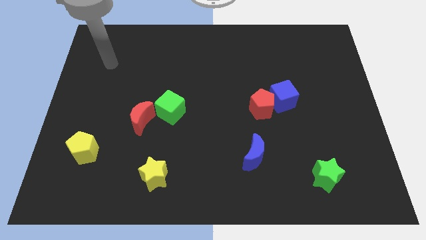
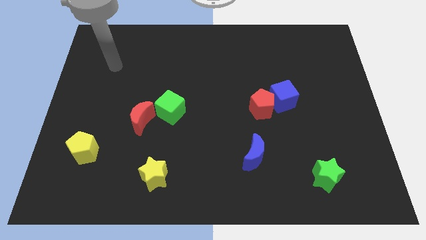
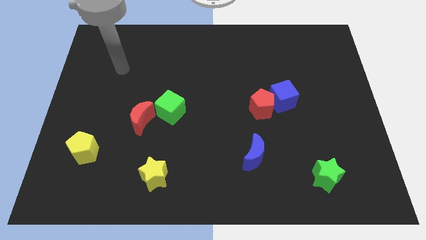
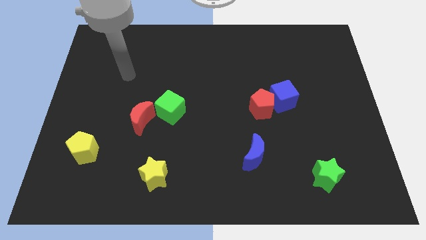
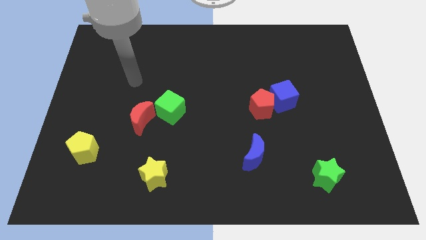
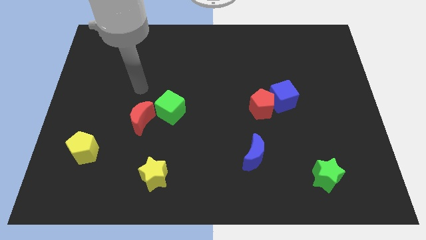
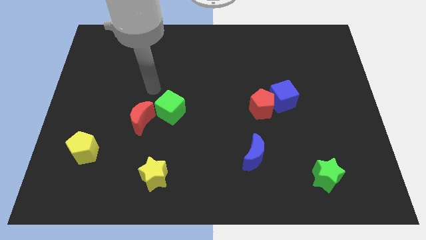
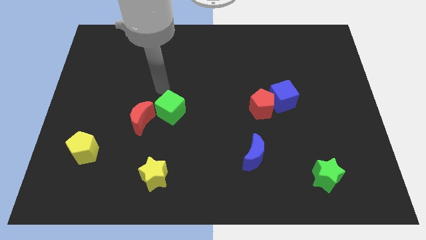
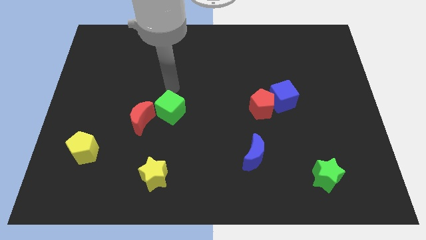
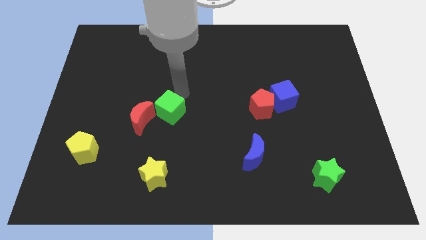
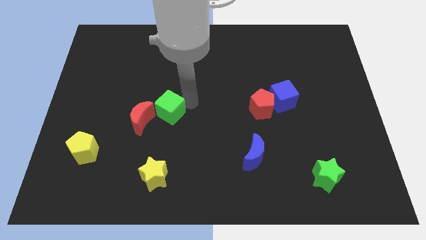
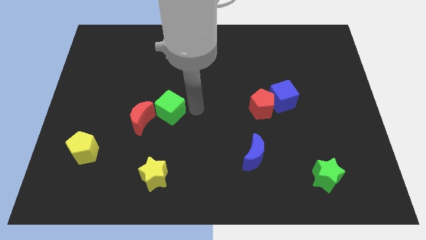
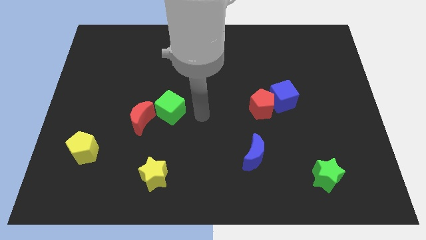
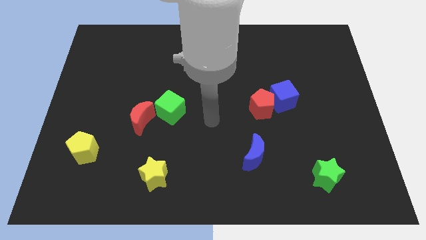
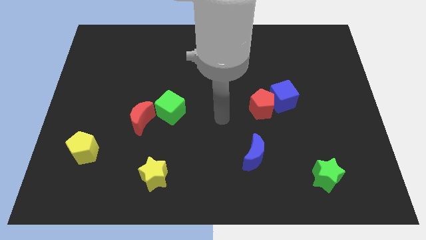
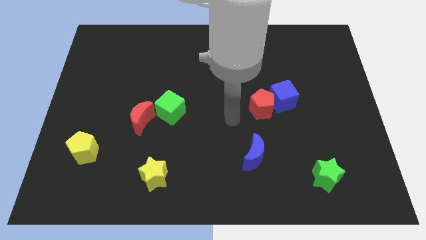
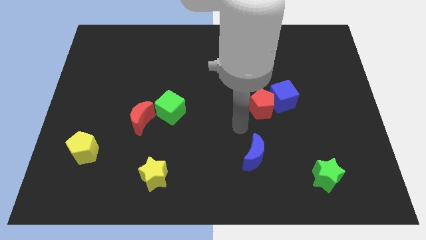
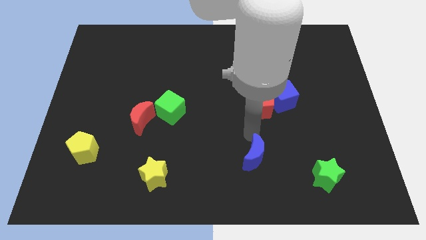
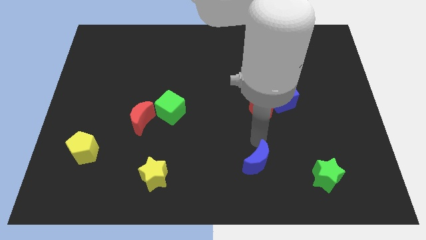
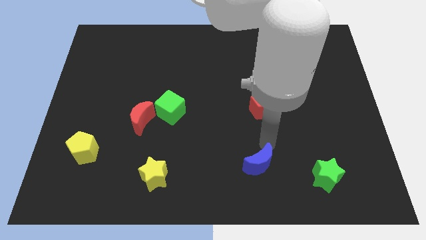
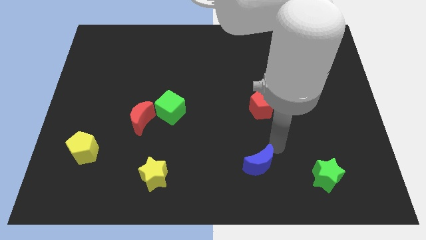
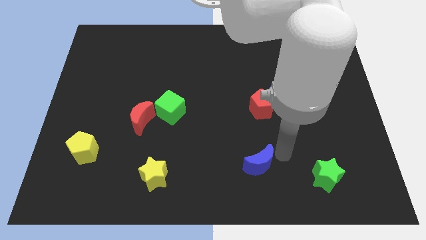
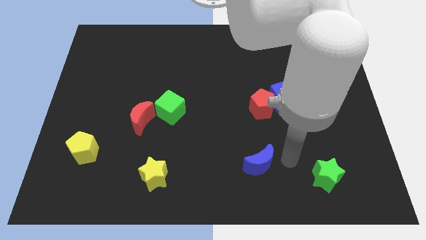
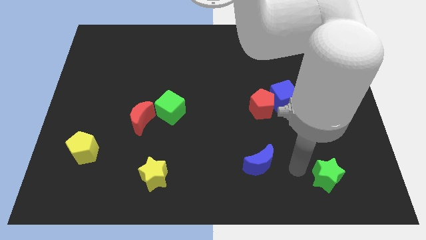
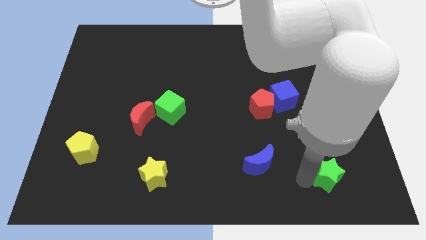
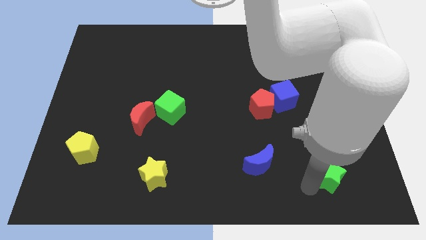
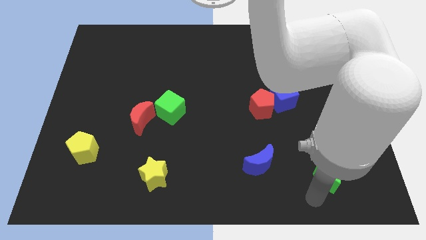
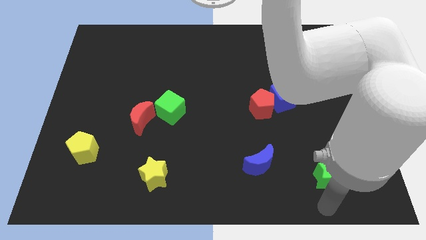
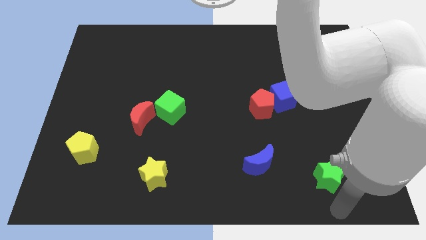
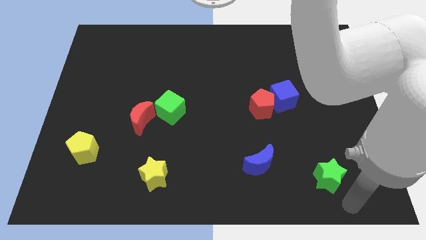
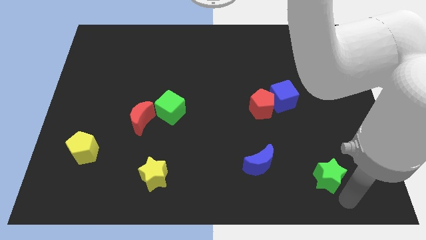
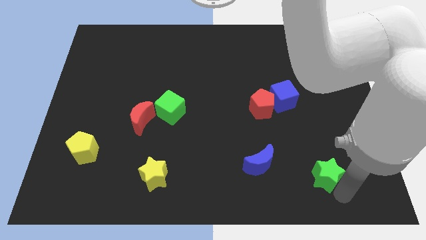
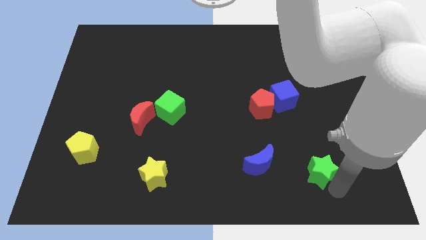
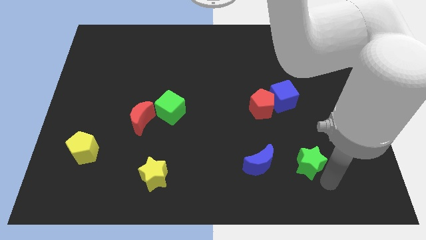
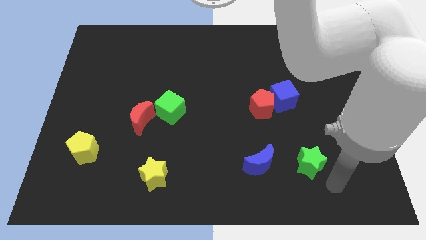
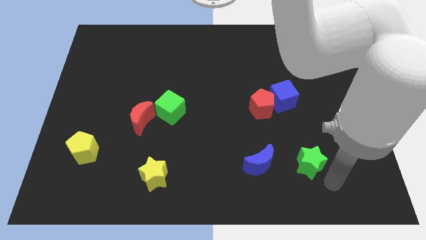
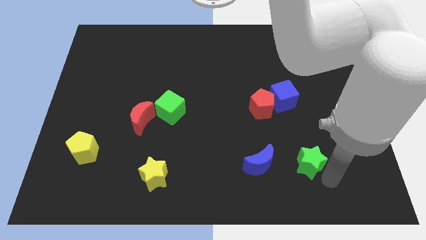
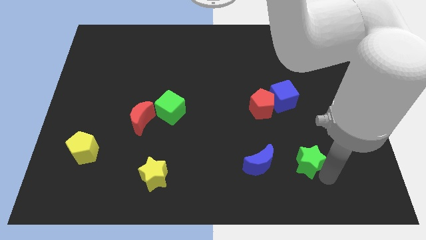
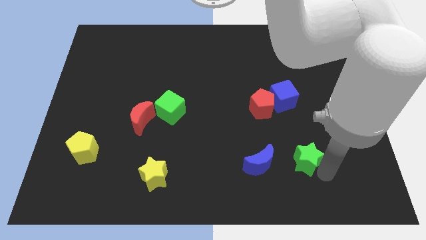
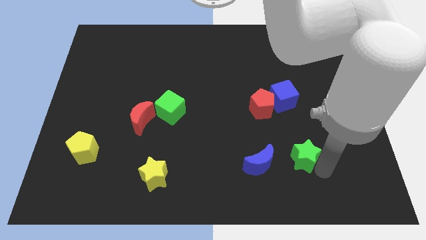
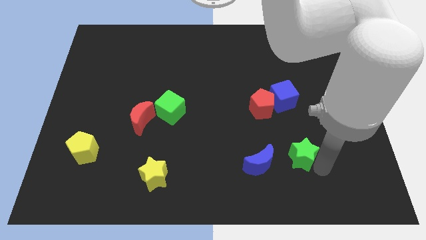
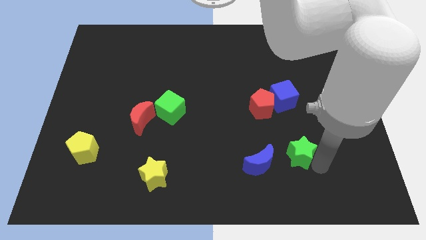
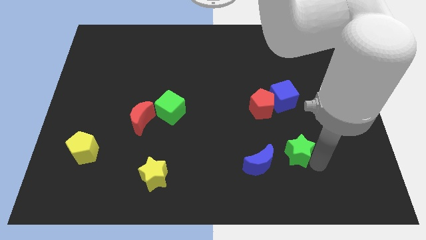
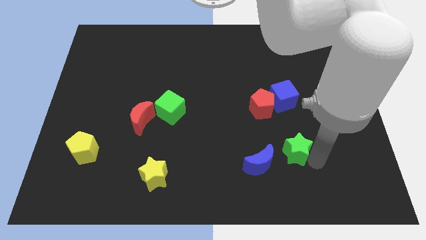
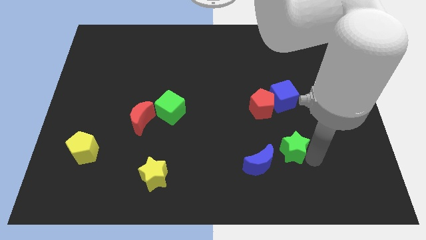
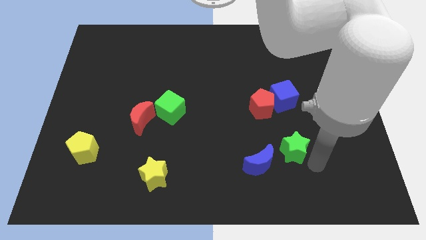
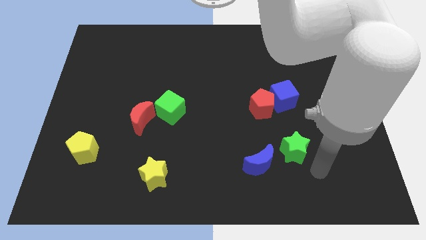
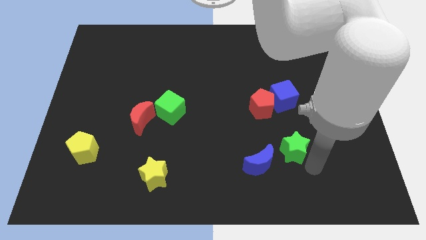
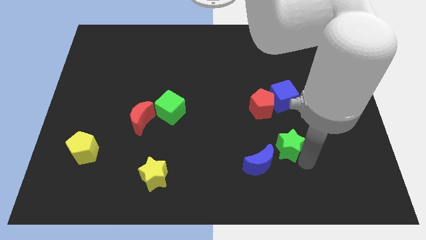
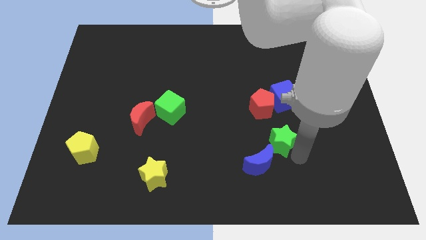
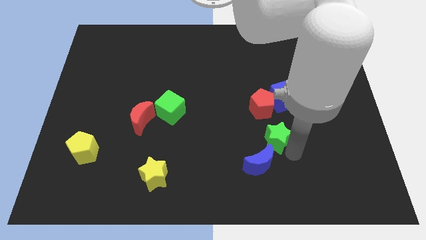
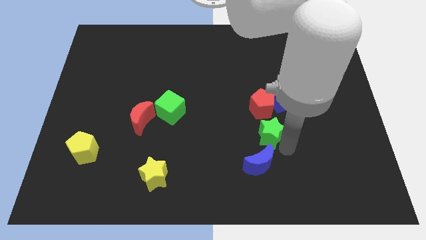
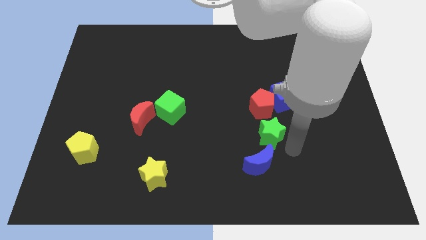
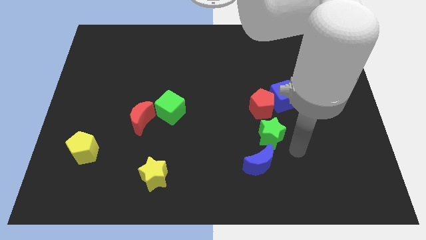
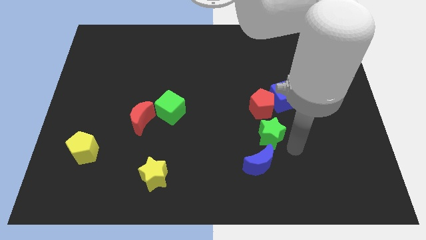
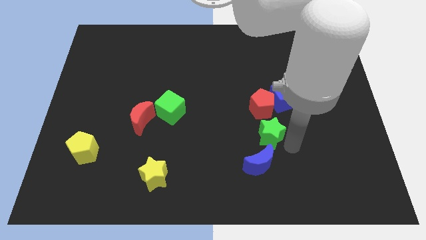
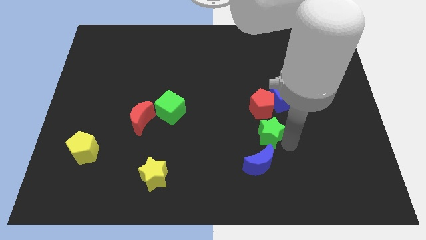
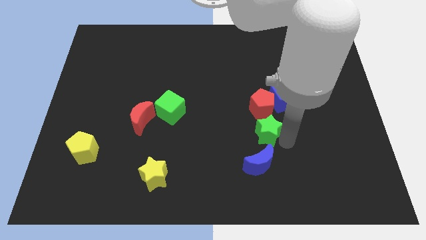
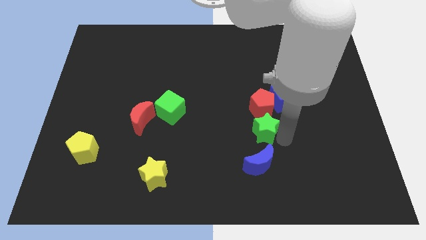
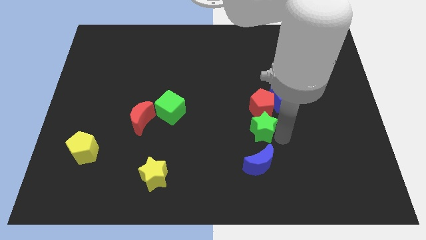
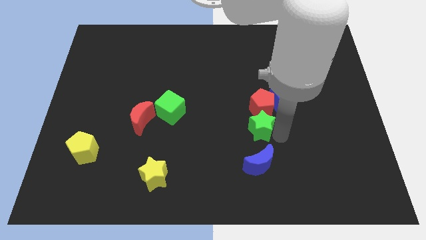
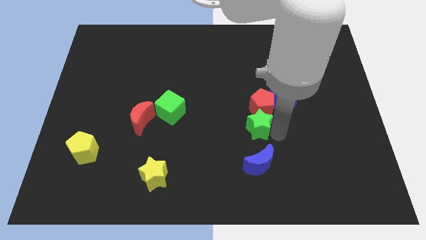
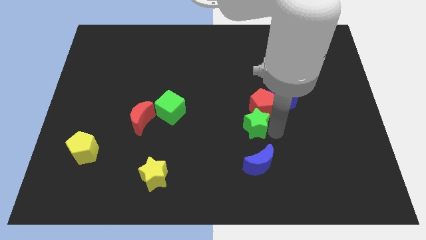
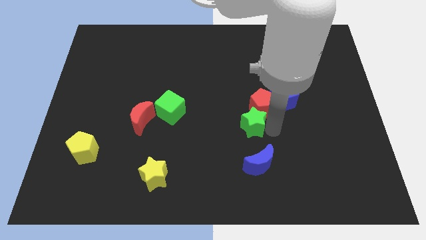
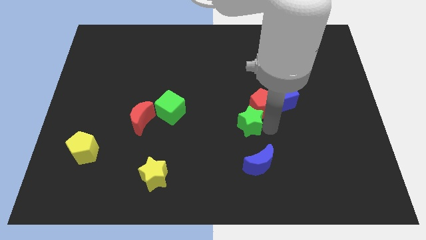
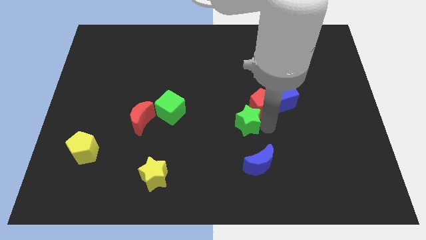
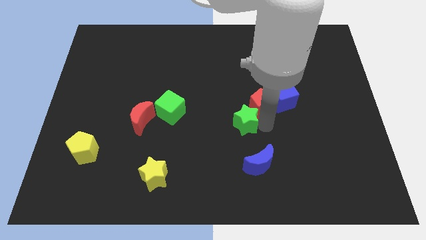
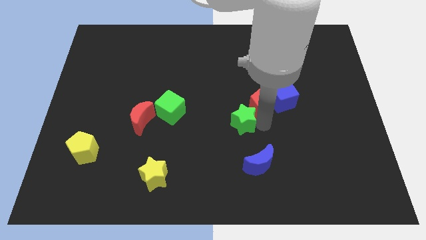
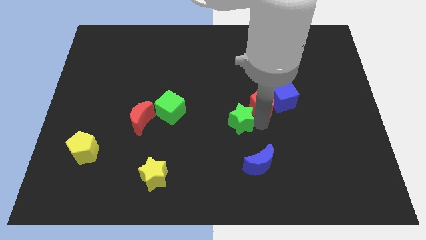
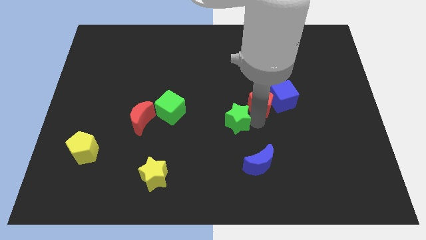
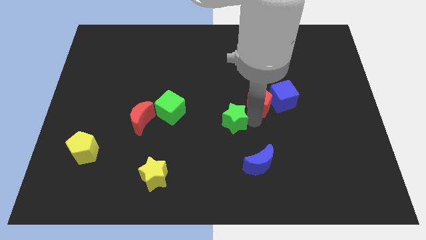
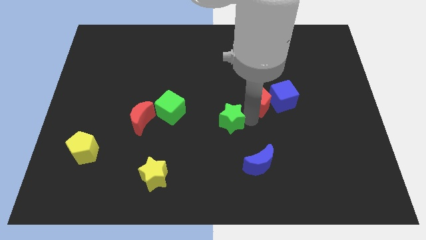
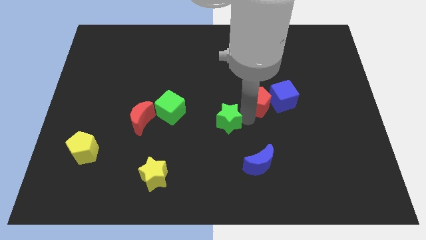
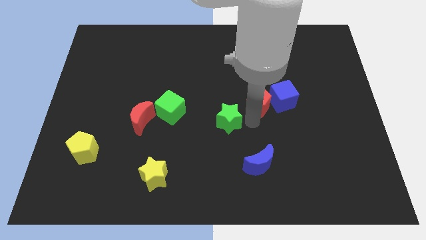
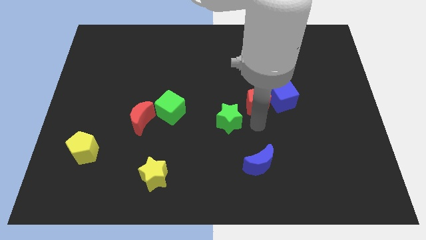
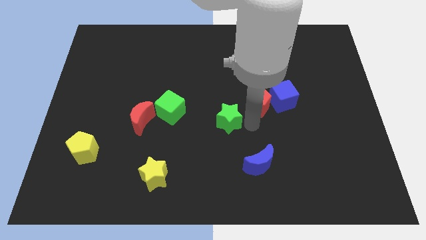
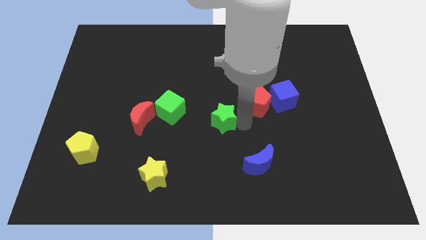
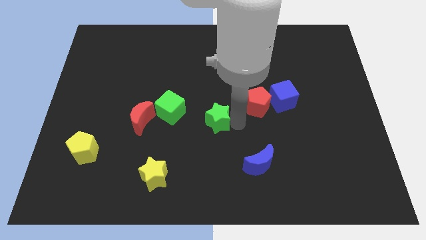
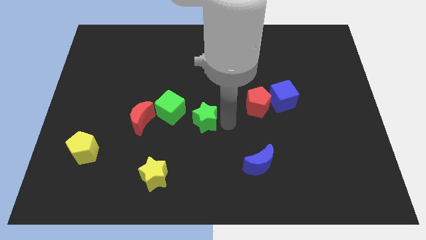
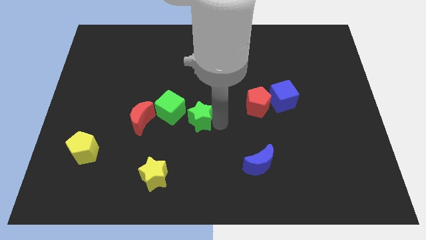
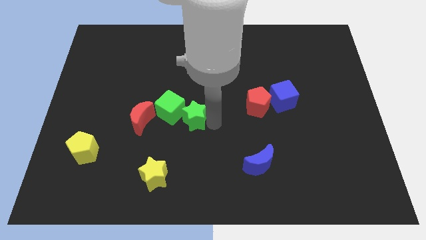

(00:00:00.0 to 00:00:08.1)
push the green star close to the green cube
